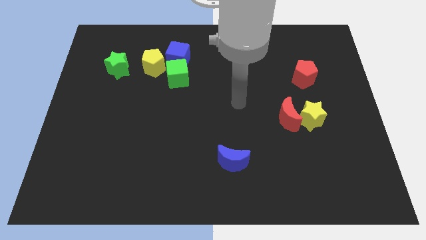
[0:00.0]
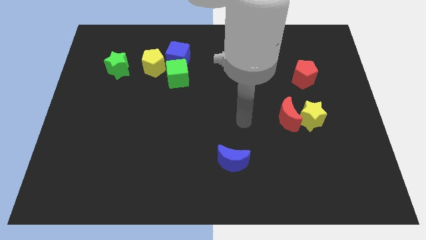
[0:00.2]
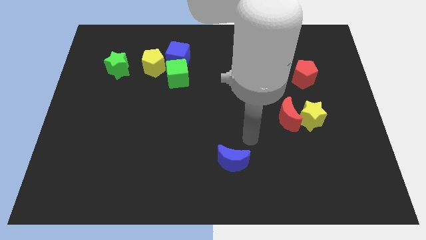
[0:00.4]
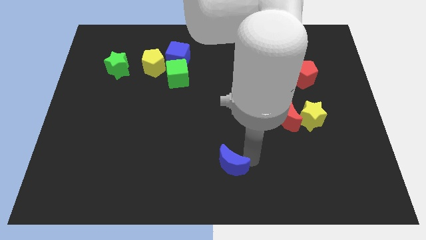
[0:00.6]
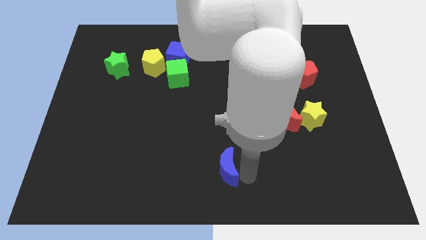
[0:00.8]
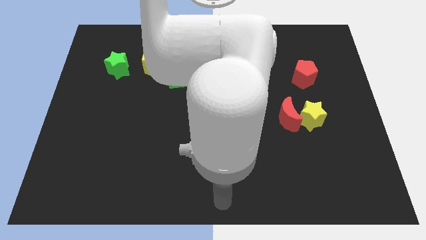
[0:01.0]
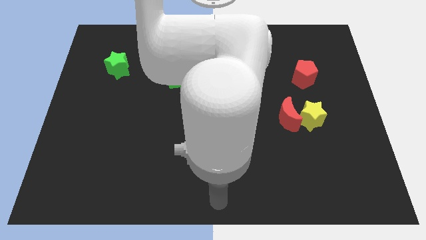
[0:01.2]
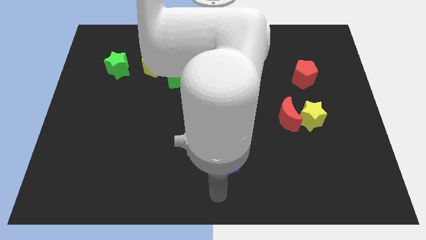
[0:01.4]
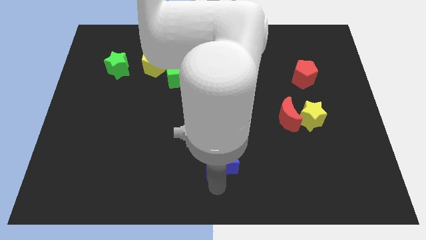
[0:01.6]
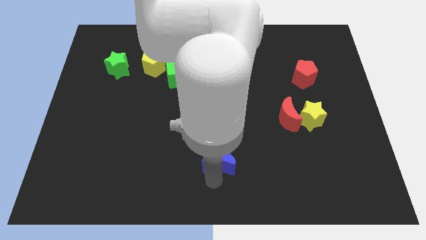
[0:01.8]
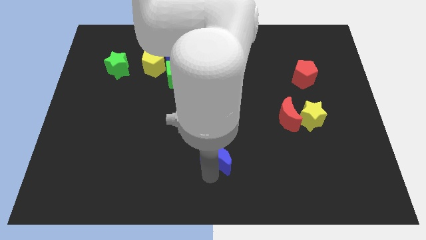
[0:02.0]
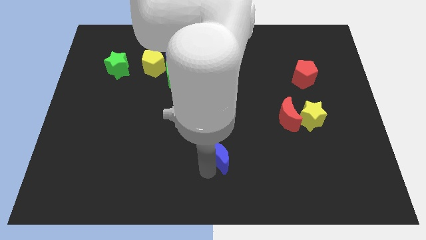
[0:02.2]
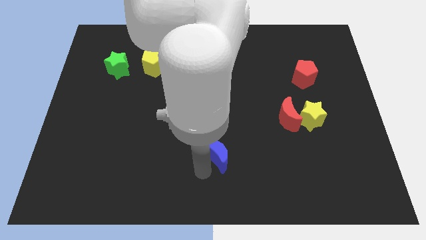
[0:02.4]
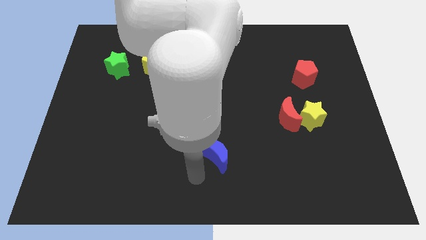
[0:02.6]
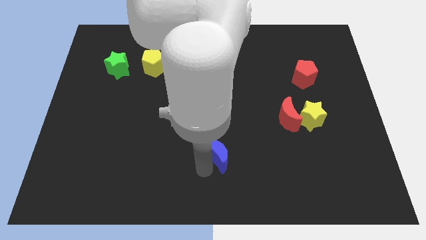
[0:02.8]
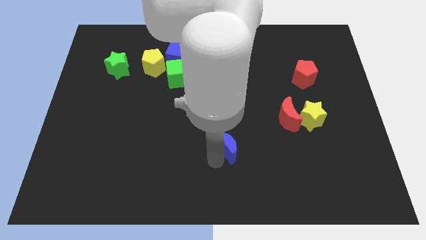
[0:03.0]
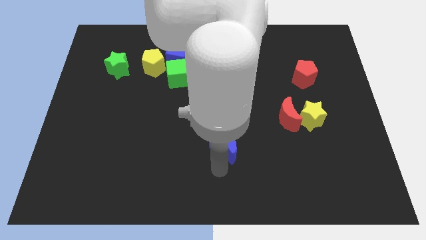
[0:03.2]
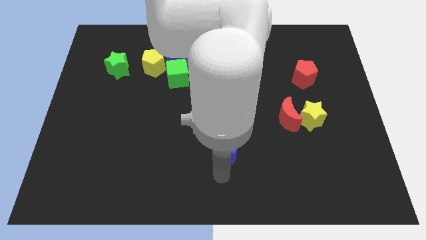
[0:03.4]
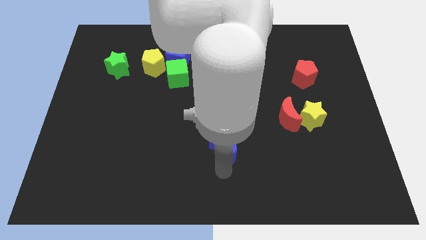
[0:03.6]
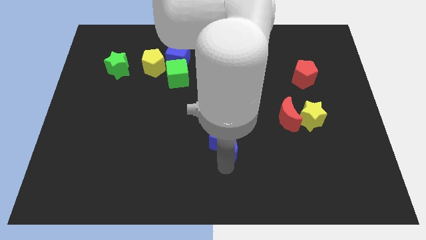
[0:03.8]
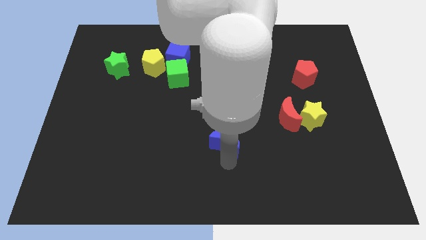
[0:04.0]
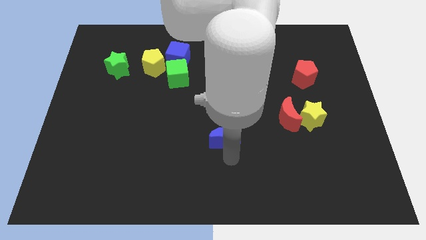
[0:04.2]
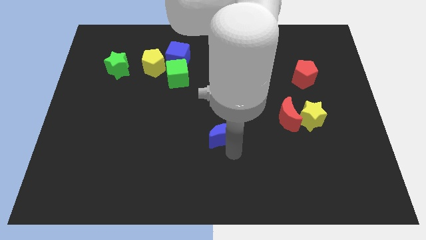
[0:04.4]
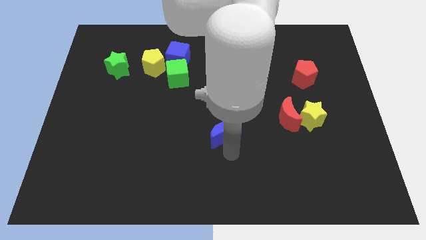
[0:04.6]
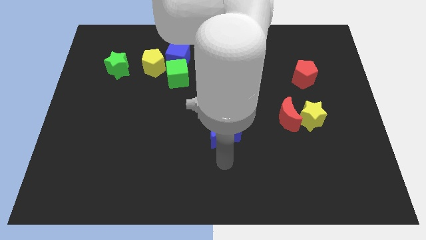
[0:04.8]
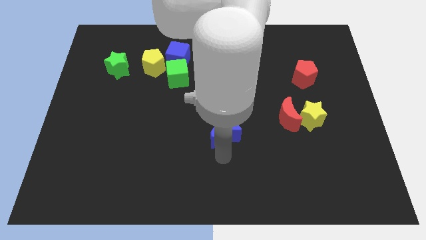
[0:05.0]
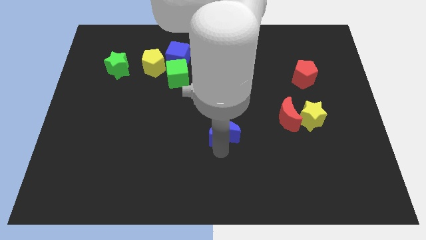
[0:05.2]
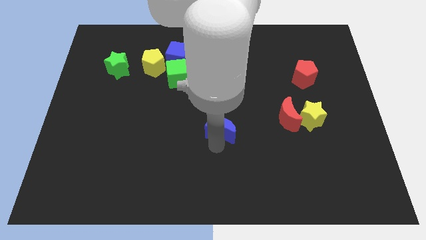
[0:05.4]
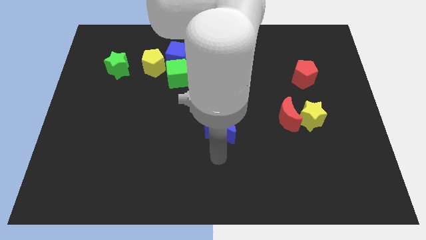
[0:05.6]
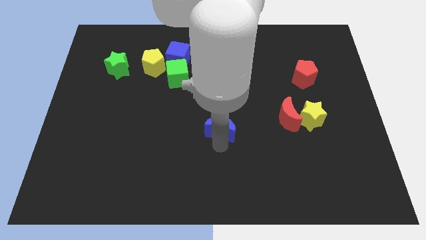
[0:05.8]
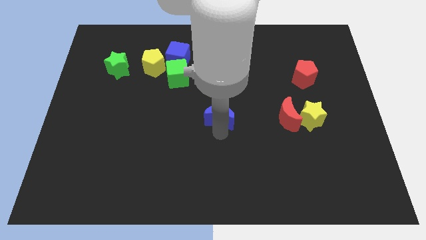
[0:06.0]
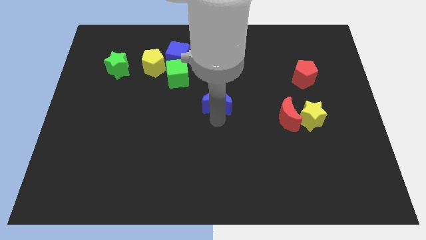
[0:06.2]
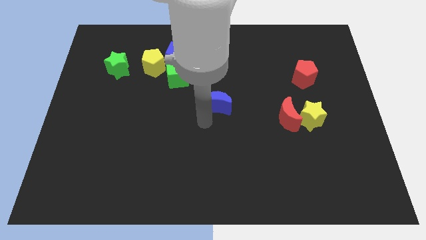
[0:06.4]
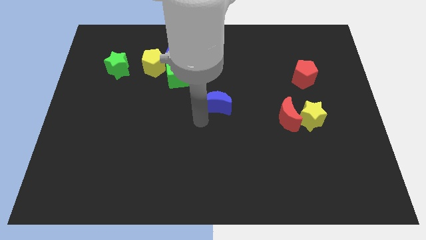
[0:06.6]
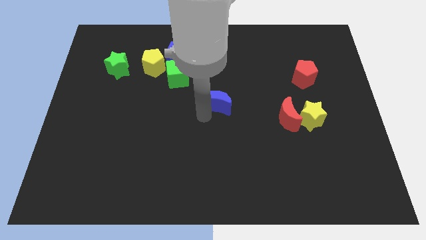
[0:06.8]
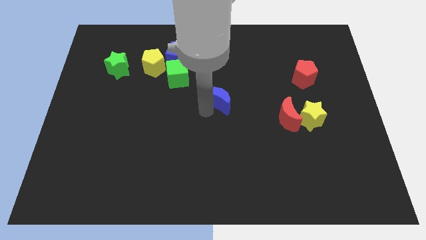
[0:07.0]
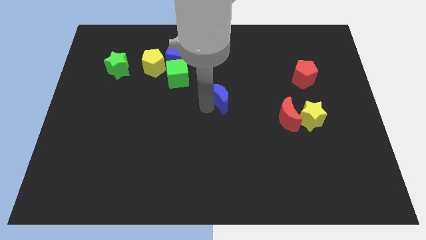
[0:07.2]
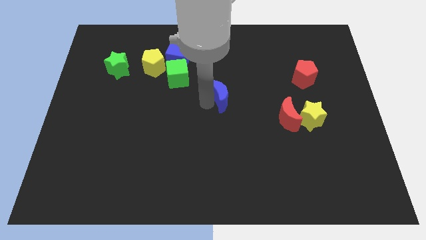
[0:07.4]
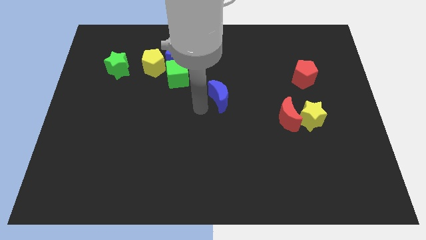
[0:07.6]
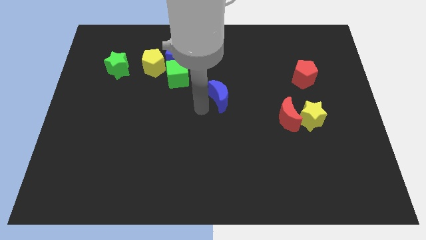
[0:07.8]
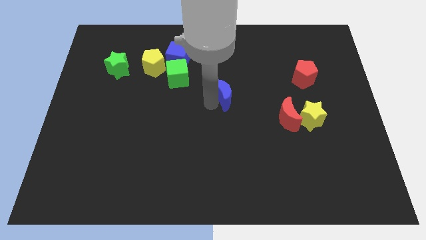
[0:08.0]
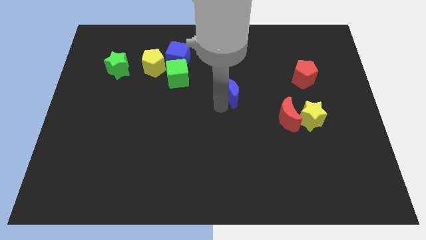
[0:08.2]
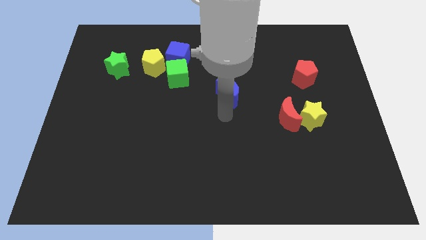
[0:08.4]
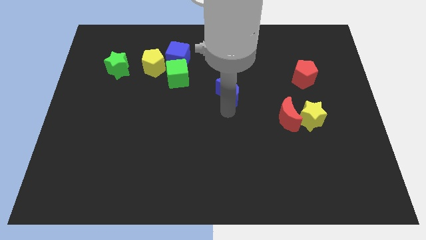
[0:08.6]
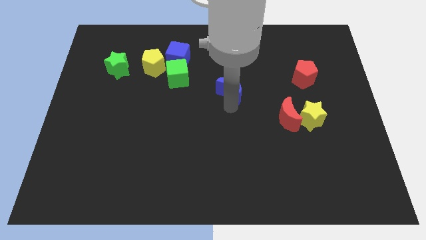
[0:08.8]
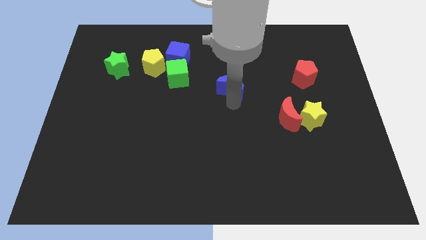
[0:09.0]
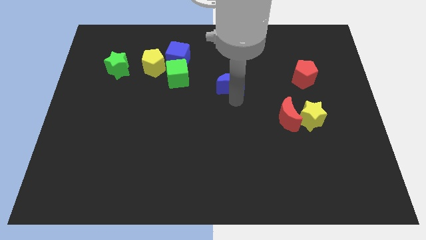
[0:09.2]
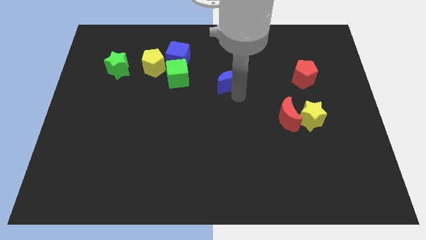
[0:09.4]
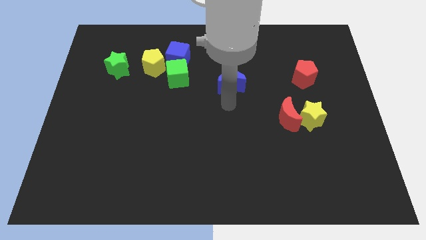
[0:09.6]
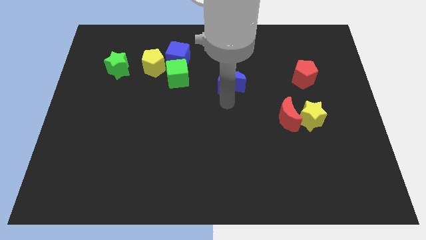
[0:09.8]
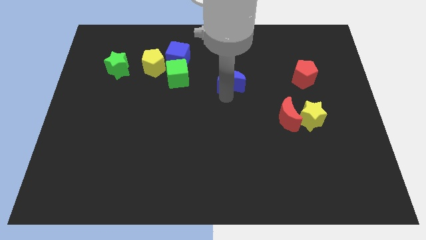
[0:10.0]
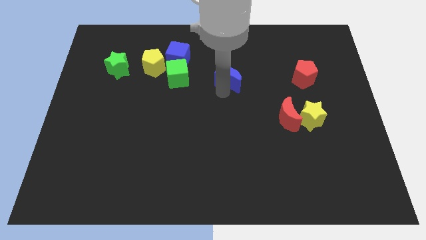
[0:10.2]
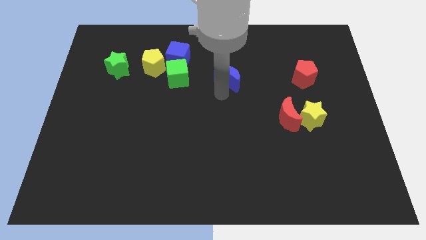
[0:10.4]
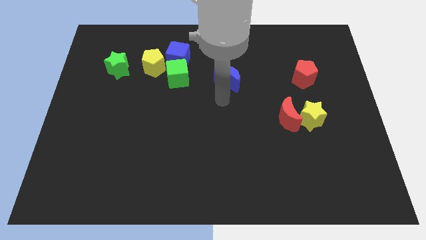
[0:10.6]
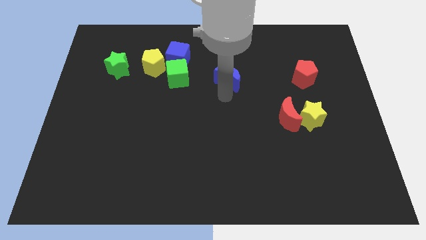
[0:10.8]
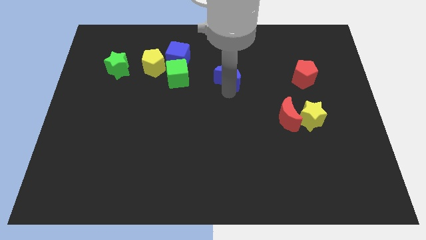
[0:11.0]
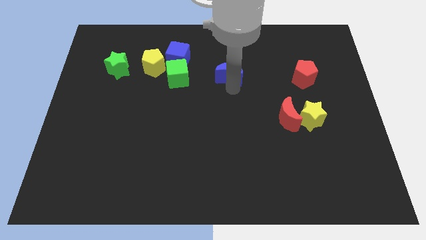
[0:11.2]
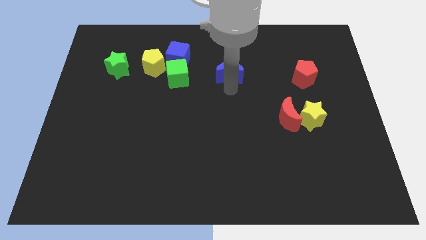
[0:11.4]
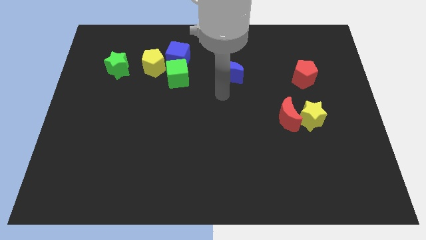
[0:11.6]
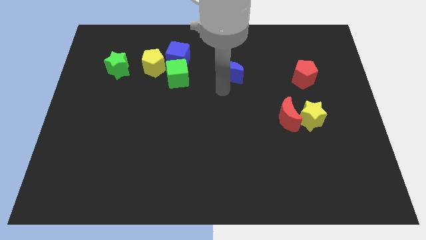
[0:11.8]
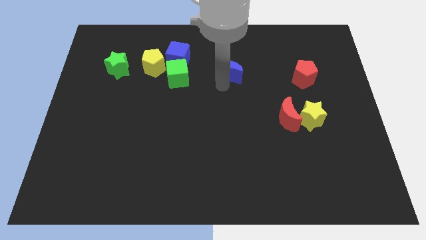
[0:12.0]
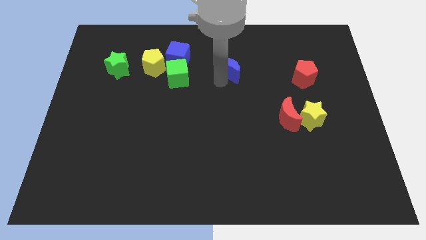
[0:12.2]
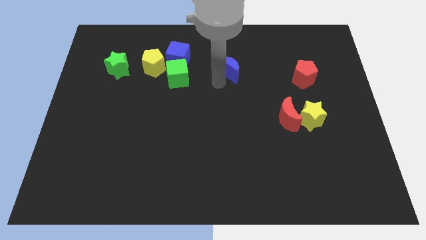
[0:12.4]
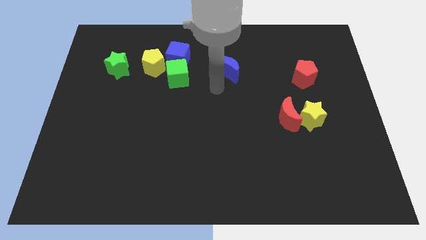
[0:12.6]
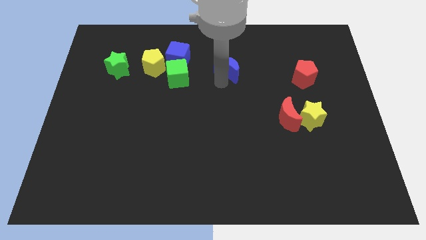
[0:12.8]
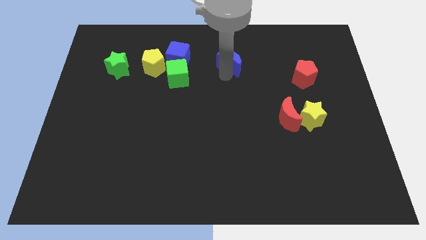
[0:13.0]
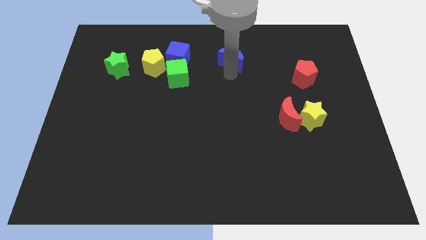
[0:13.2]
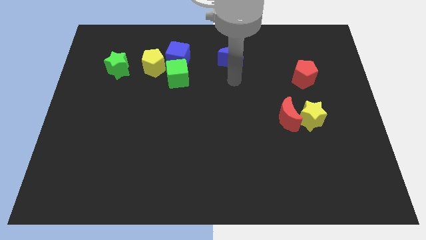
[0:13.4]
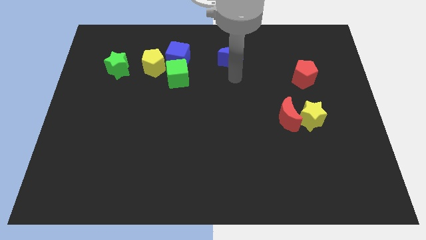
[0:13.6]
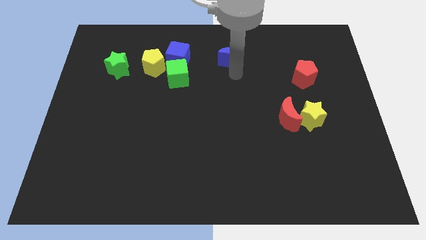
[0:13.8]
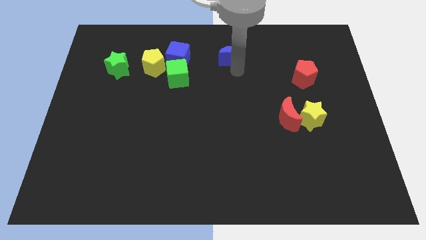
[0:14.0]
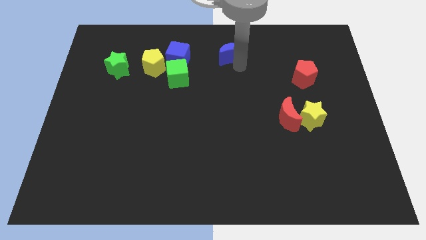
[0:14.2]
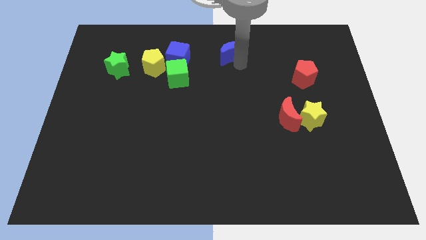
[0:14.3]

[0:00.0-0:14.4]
slide the blue moon to the towards your base
